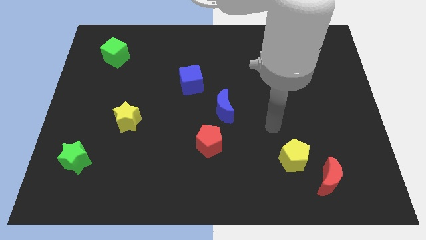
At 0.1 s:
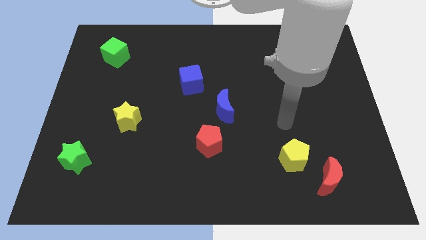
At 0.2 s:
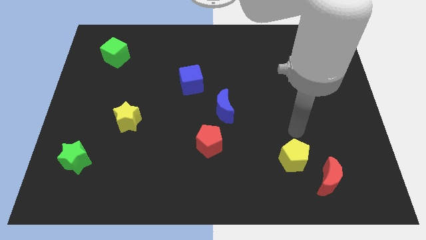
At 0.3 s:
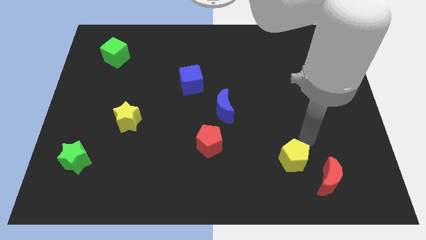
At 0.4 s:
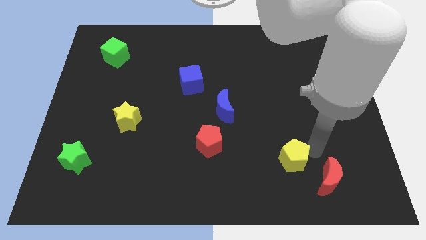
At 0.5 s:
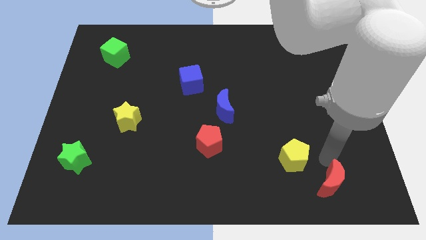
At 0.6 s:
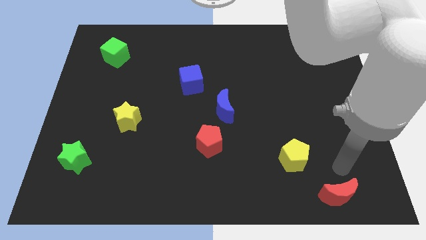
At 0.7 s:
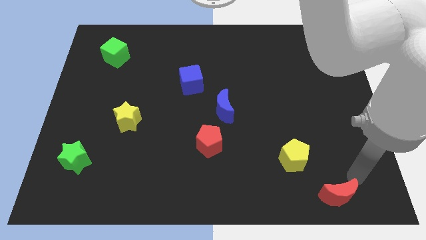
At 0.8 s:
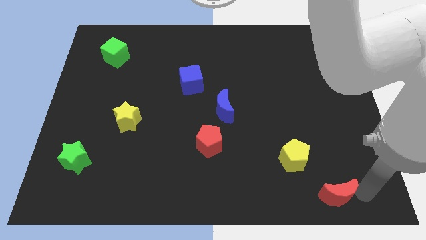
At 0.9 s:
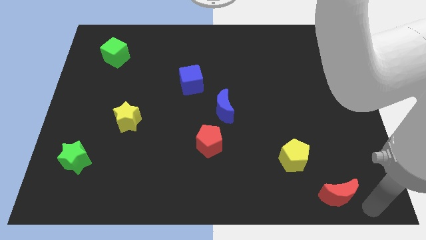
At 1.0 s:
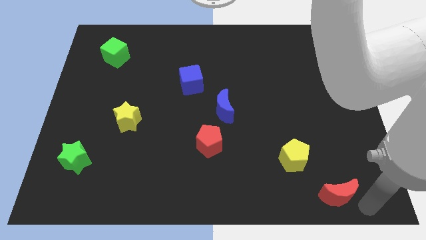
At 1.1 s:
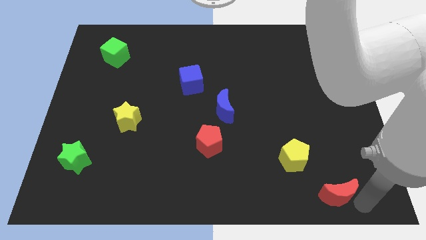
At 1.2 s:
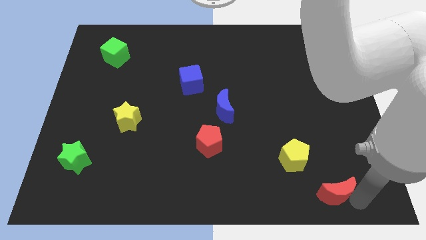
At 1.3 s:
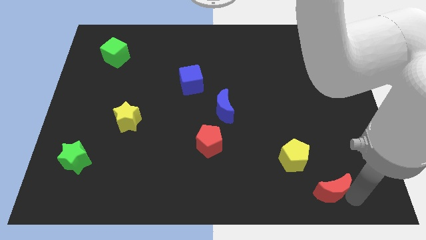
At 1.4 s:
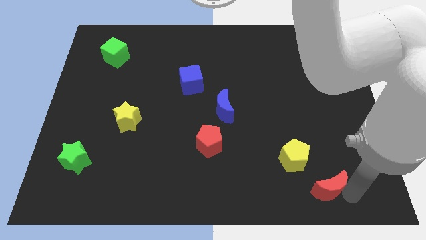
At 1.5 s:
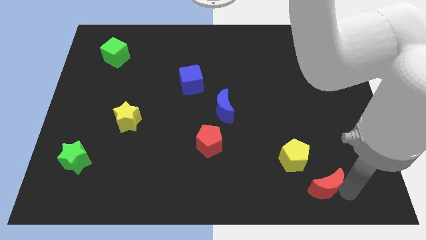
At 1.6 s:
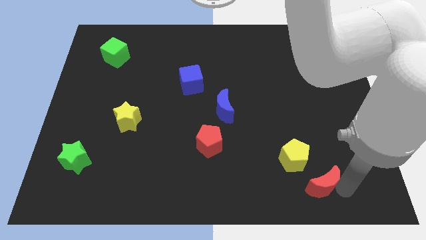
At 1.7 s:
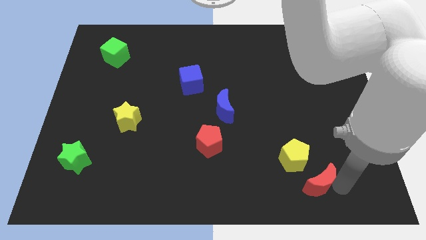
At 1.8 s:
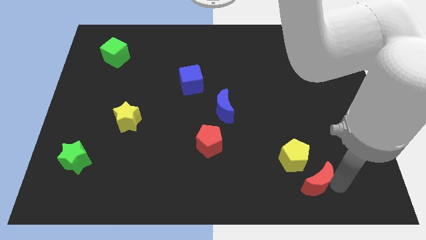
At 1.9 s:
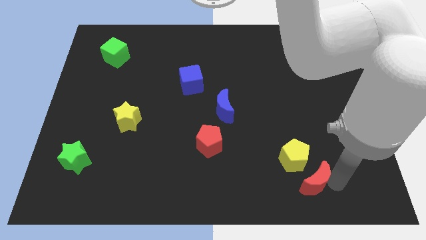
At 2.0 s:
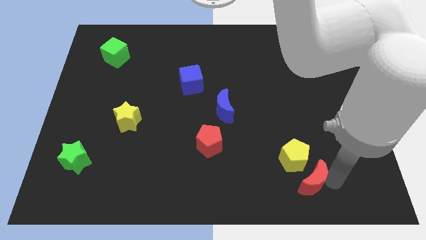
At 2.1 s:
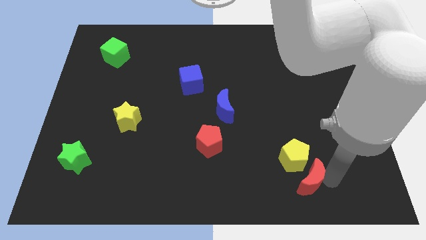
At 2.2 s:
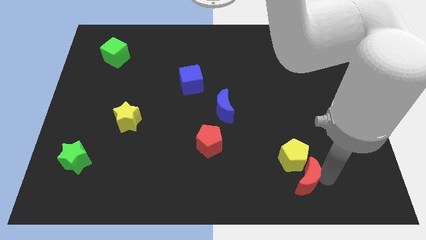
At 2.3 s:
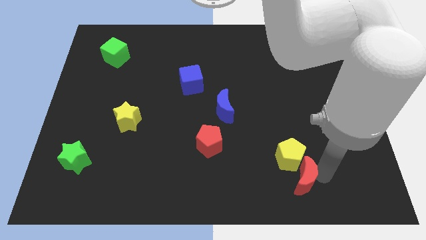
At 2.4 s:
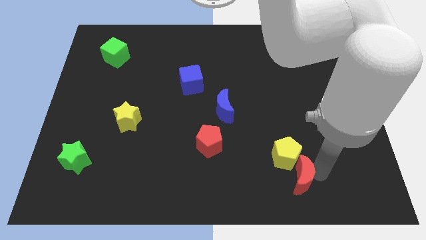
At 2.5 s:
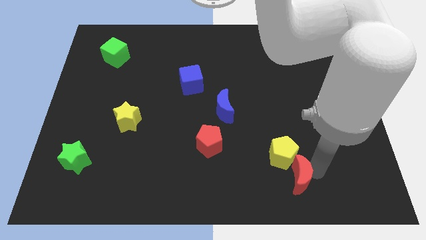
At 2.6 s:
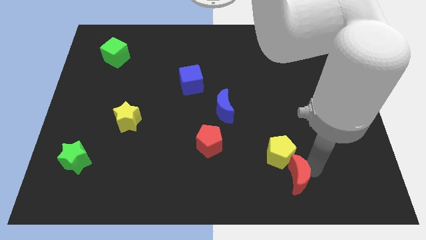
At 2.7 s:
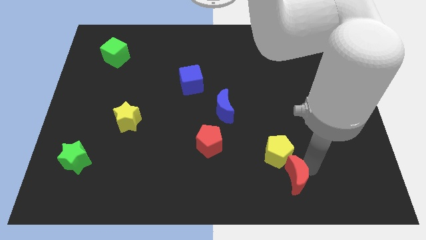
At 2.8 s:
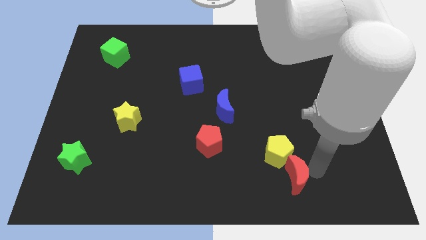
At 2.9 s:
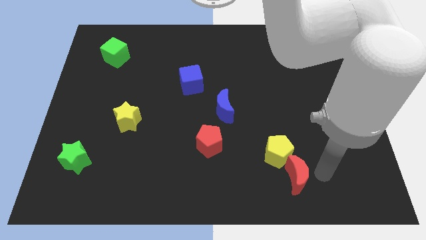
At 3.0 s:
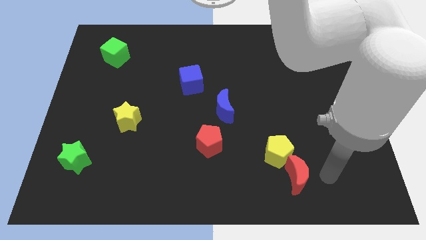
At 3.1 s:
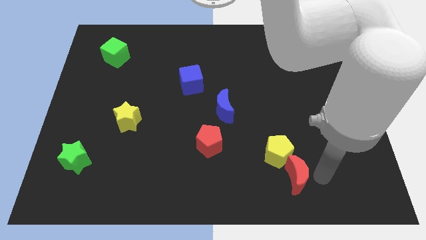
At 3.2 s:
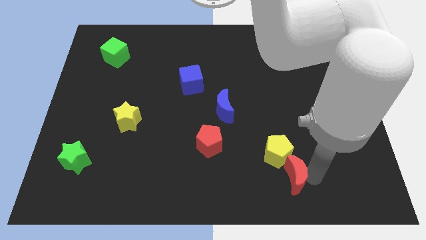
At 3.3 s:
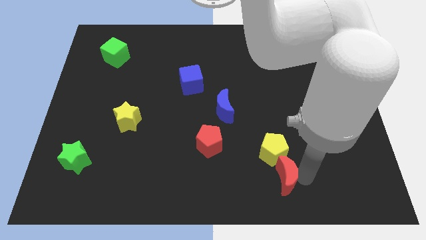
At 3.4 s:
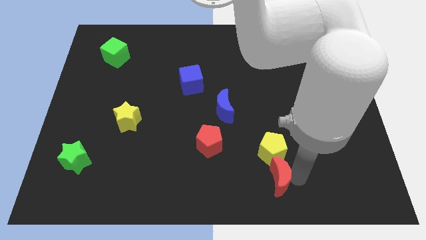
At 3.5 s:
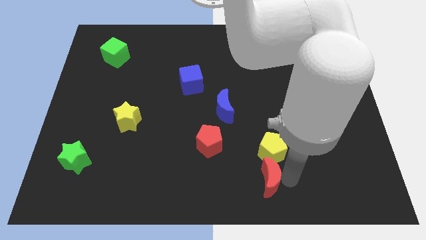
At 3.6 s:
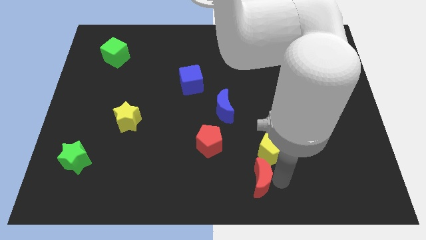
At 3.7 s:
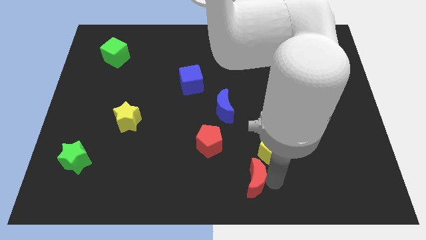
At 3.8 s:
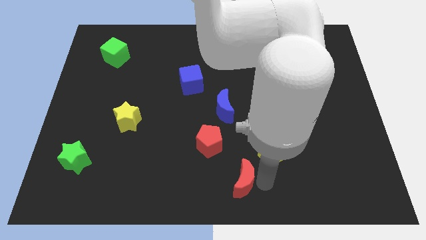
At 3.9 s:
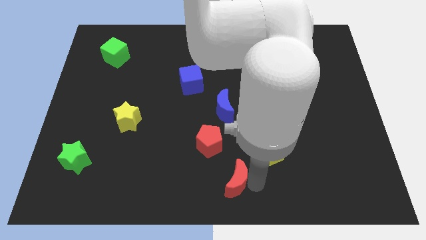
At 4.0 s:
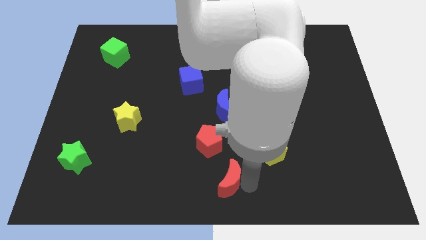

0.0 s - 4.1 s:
slide the red moon left

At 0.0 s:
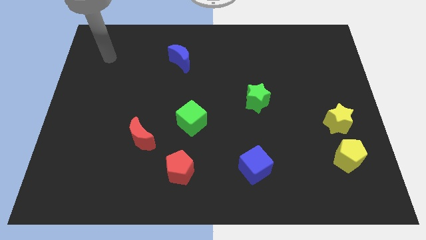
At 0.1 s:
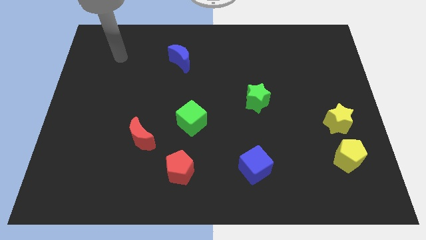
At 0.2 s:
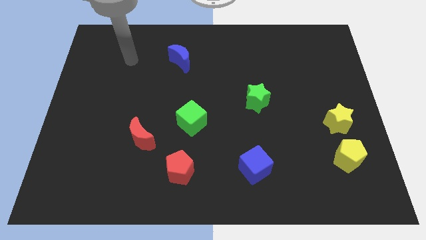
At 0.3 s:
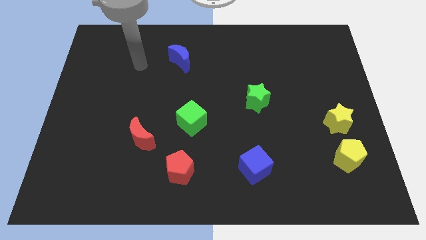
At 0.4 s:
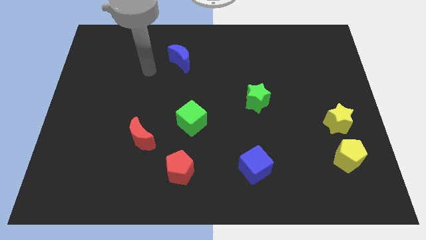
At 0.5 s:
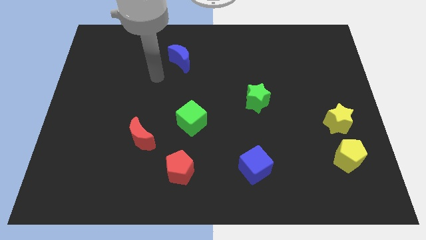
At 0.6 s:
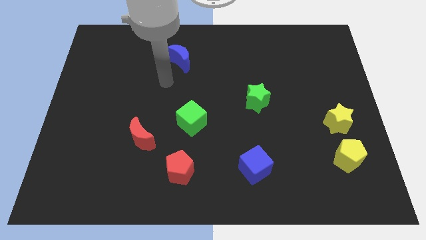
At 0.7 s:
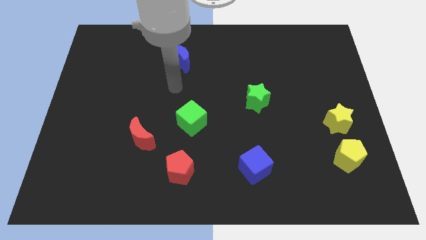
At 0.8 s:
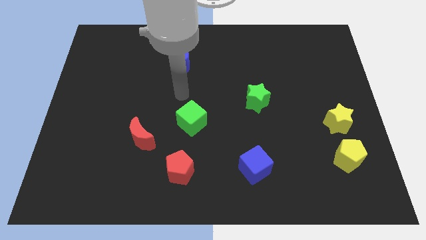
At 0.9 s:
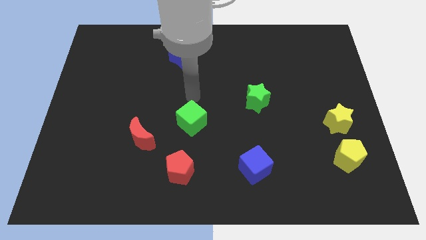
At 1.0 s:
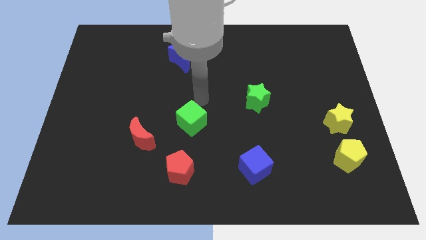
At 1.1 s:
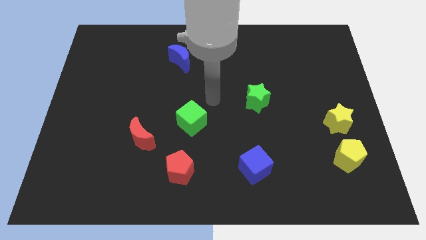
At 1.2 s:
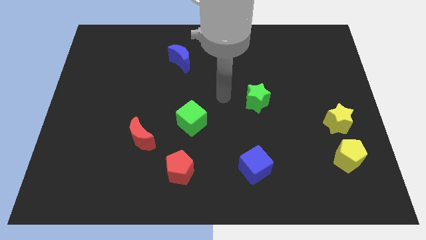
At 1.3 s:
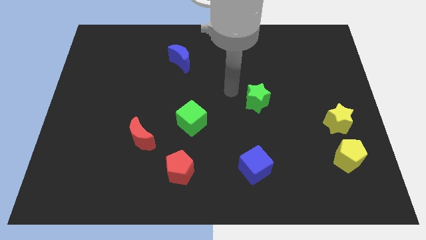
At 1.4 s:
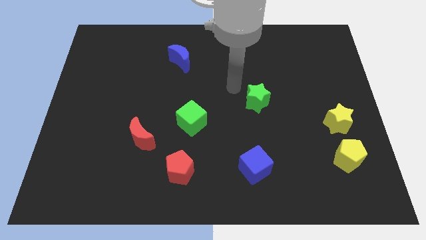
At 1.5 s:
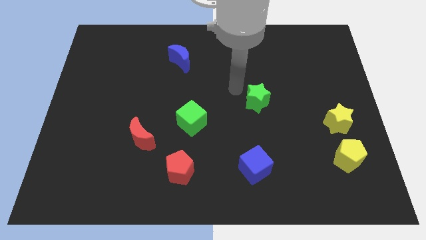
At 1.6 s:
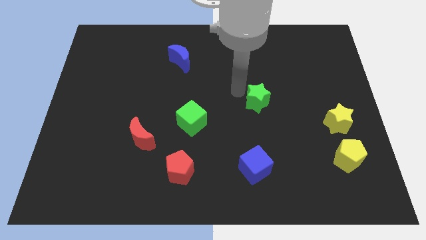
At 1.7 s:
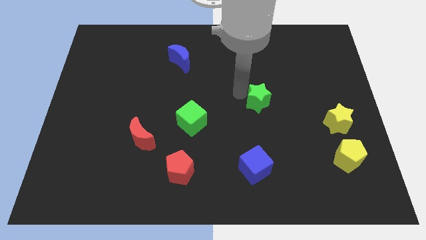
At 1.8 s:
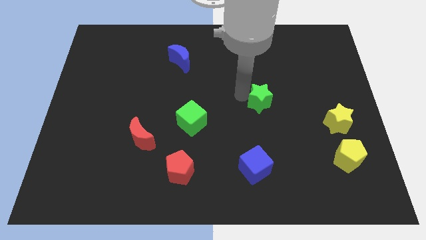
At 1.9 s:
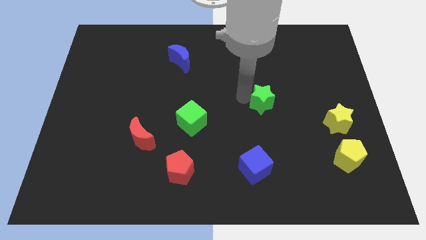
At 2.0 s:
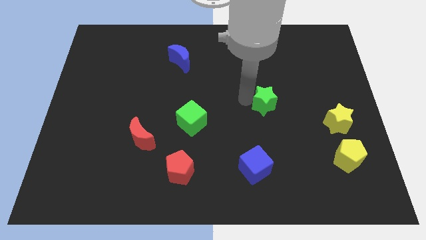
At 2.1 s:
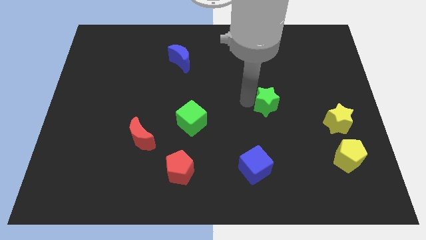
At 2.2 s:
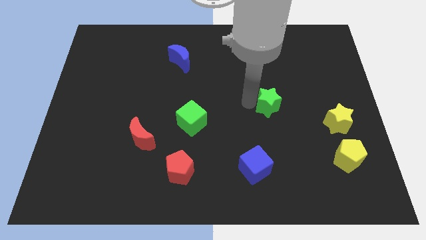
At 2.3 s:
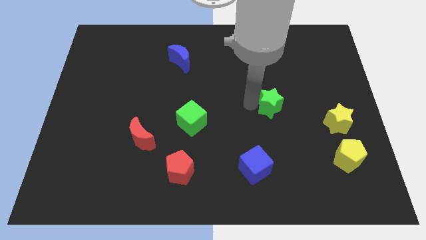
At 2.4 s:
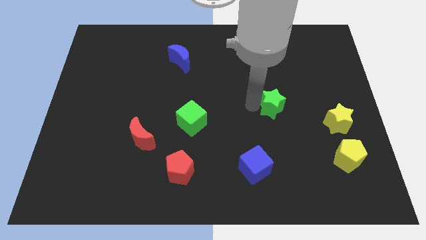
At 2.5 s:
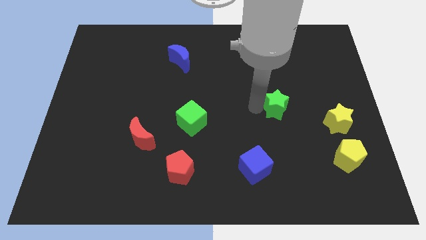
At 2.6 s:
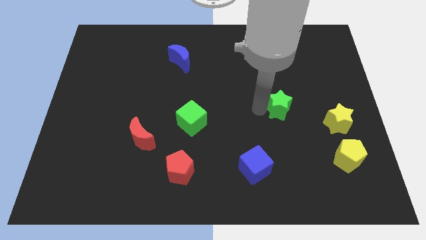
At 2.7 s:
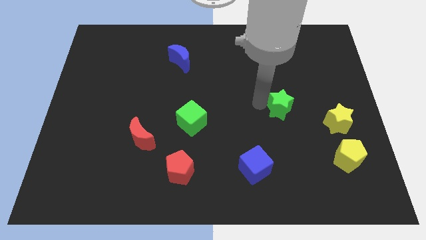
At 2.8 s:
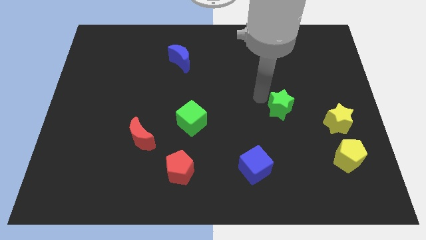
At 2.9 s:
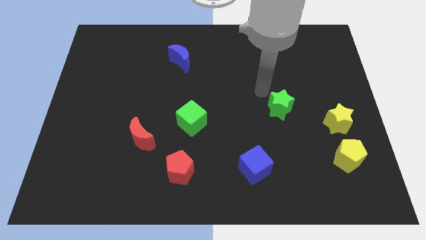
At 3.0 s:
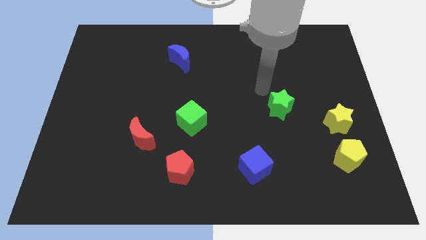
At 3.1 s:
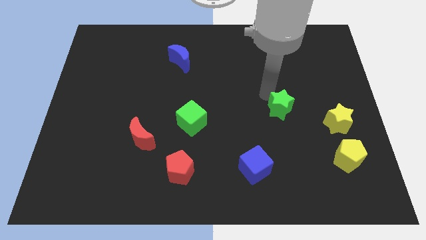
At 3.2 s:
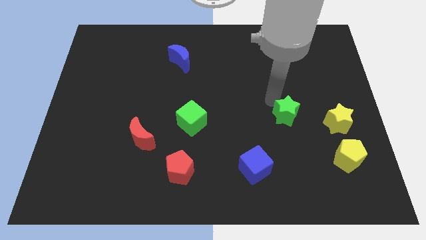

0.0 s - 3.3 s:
move the green star somewhat down and right diagonally

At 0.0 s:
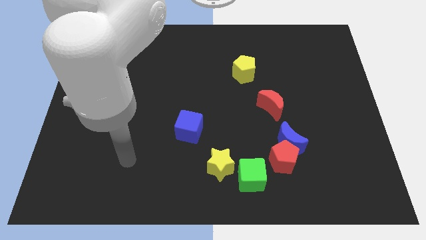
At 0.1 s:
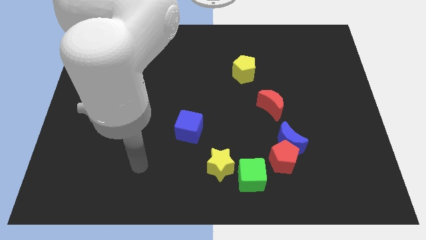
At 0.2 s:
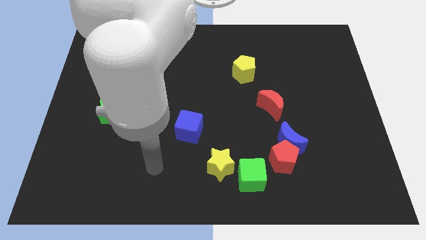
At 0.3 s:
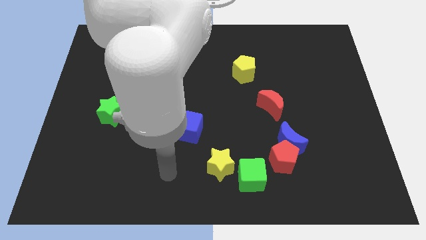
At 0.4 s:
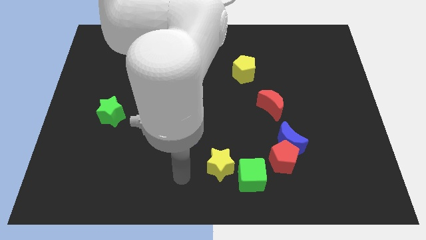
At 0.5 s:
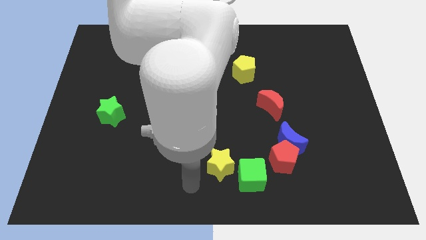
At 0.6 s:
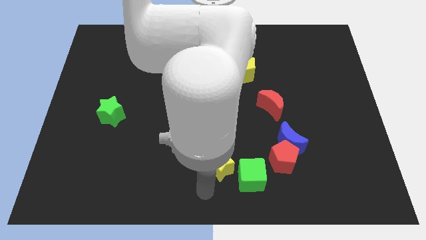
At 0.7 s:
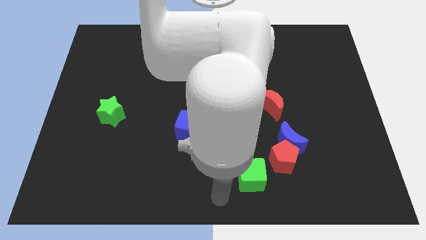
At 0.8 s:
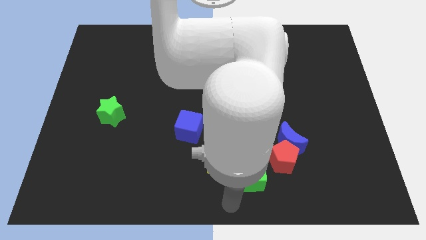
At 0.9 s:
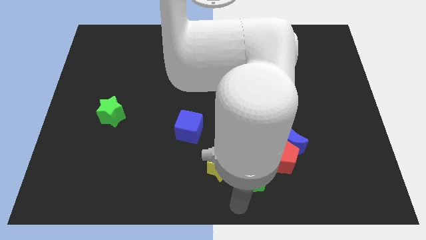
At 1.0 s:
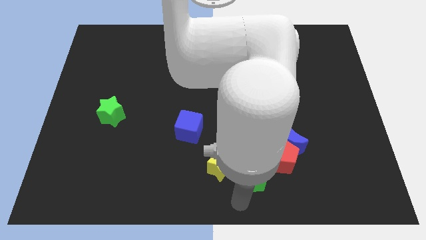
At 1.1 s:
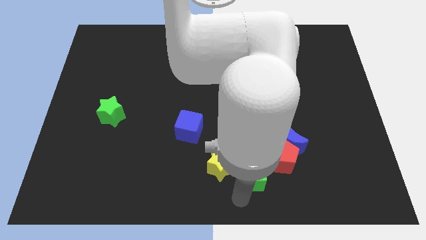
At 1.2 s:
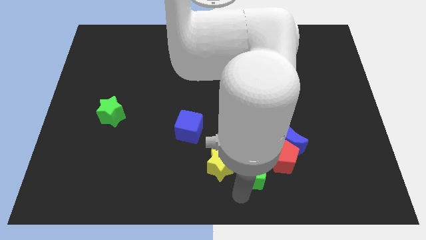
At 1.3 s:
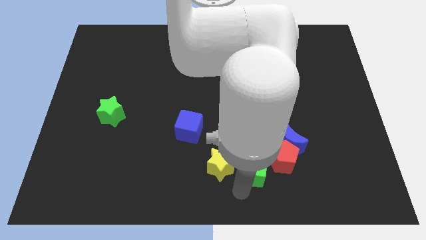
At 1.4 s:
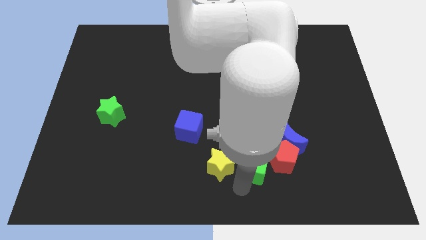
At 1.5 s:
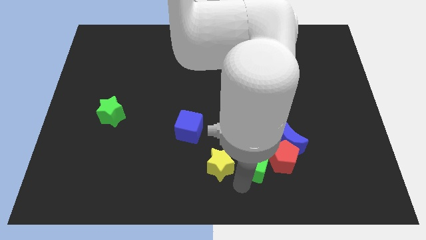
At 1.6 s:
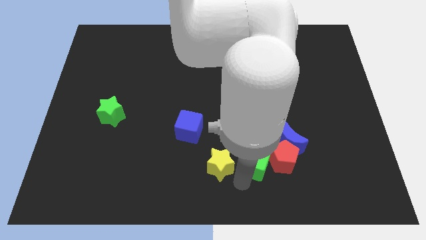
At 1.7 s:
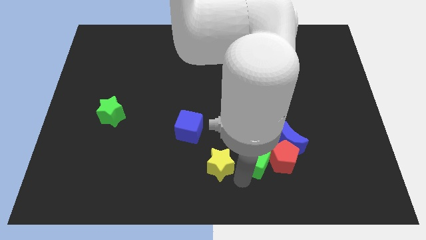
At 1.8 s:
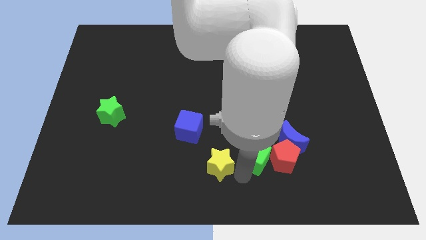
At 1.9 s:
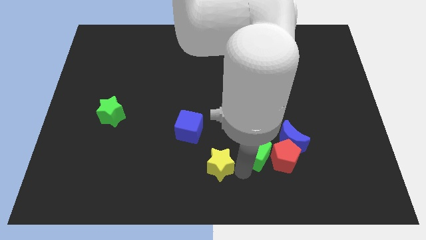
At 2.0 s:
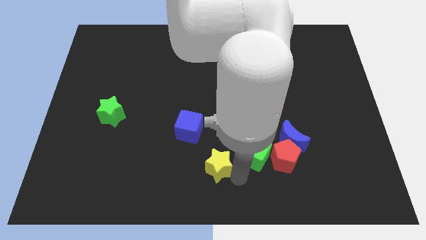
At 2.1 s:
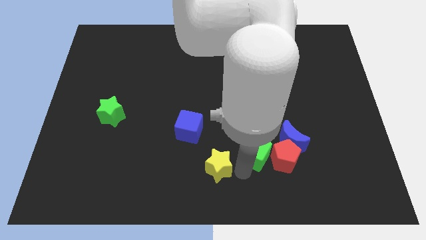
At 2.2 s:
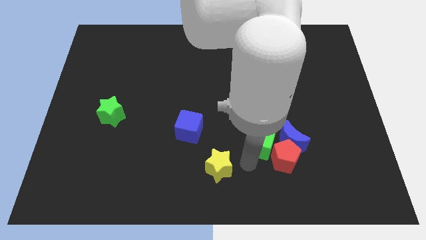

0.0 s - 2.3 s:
move the green cube slightly upwards and right
